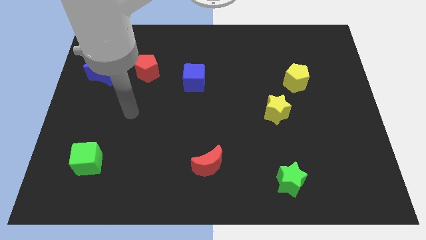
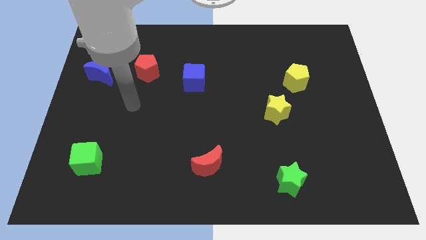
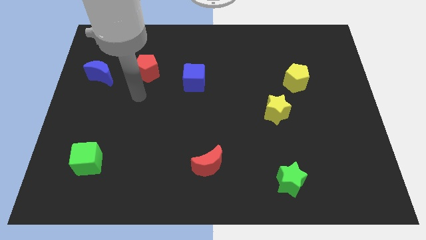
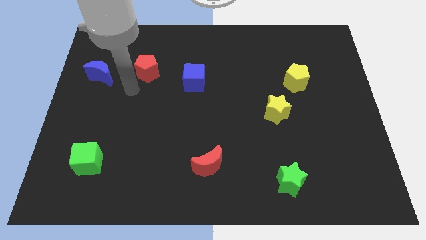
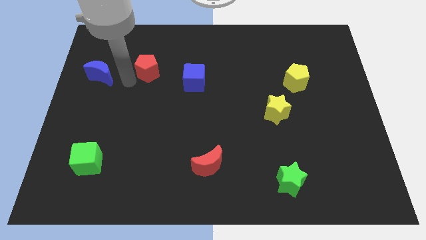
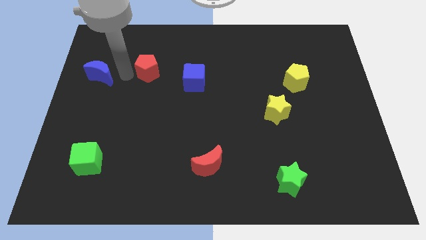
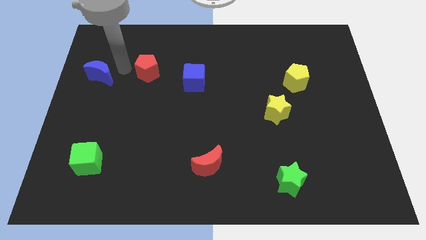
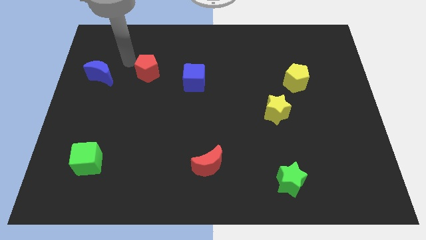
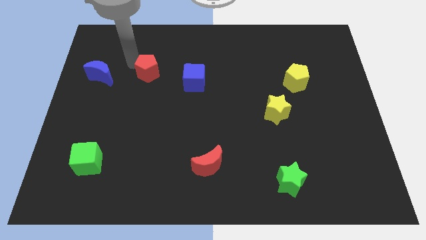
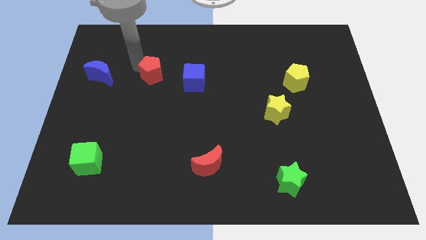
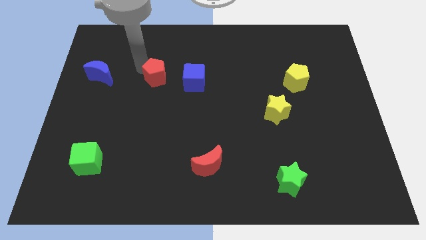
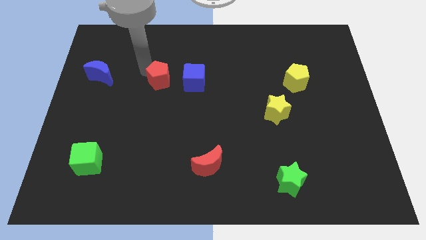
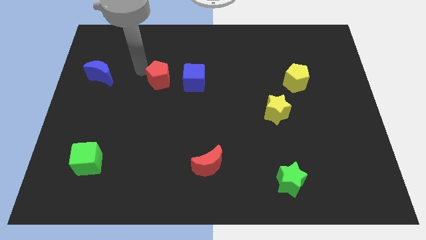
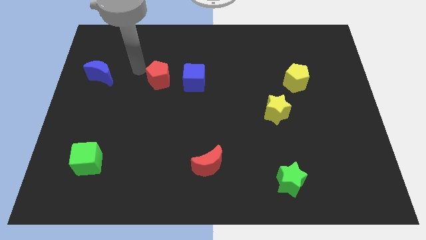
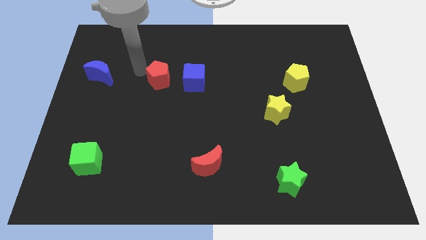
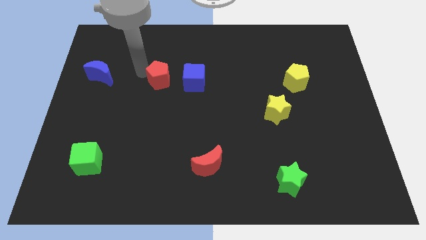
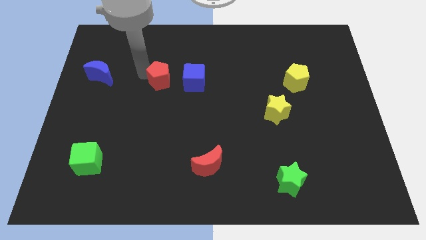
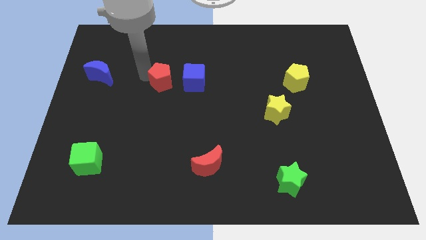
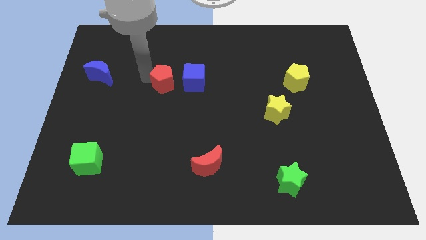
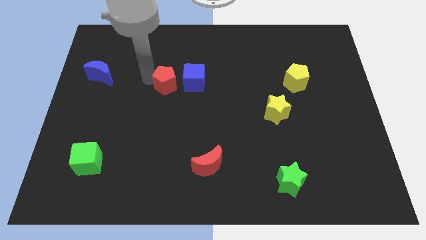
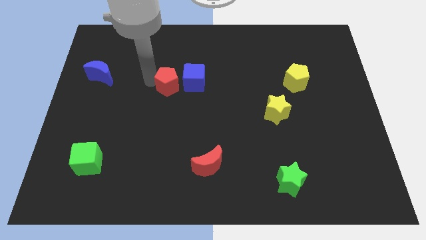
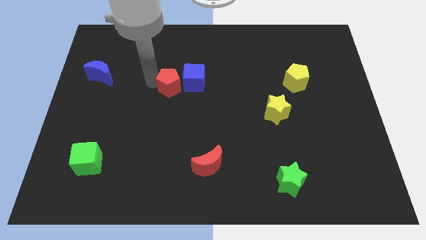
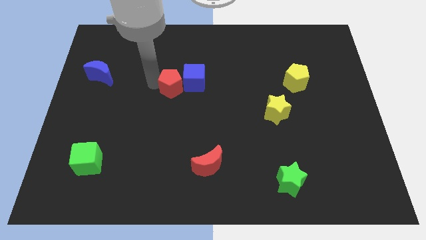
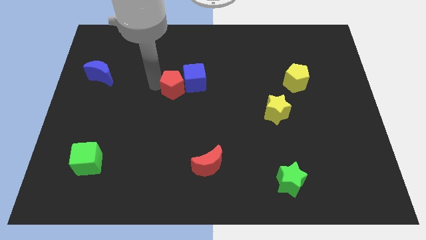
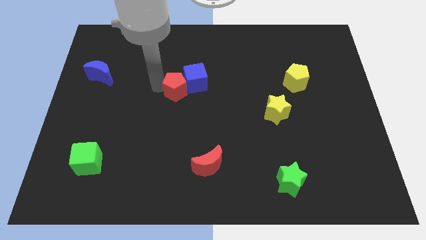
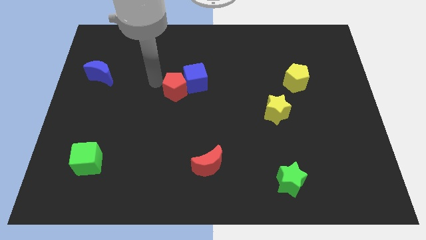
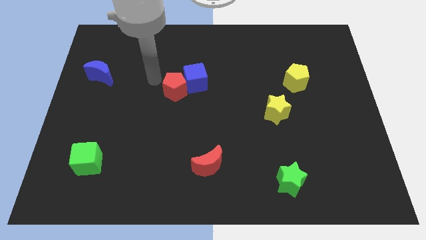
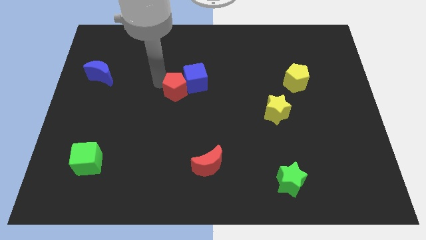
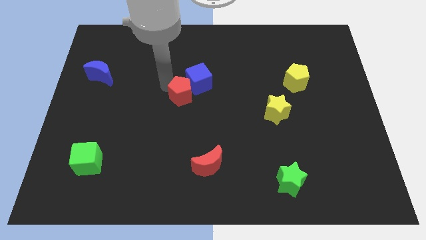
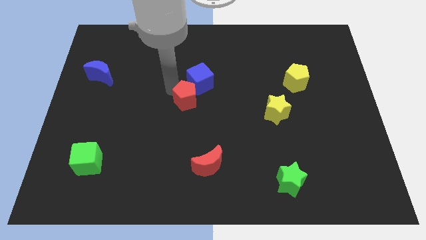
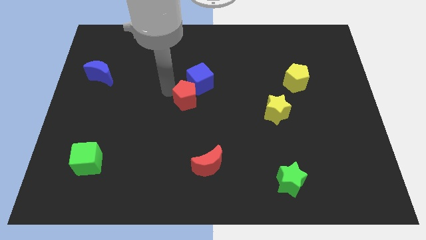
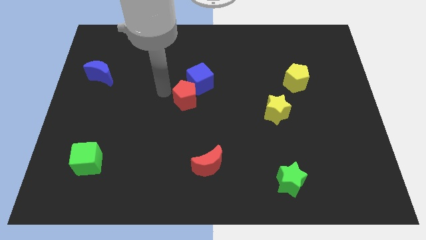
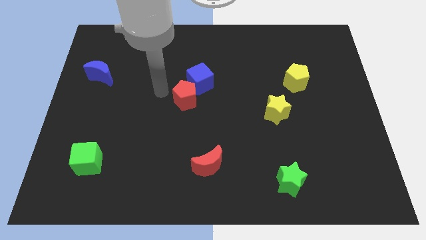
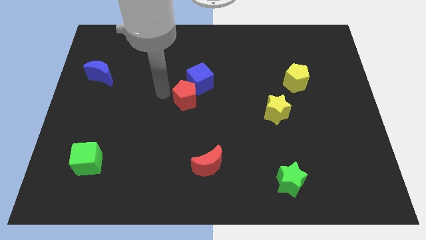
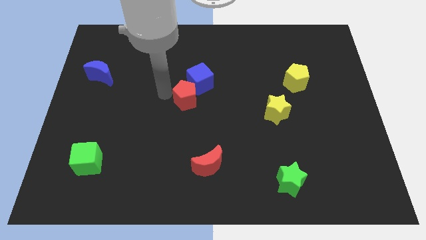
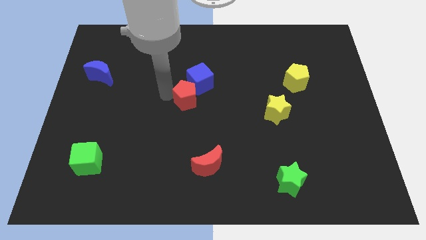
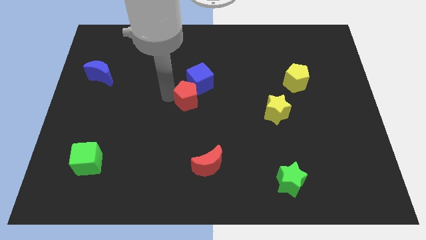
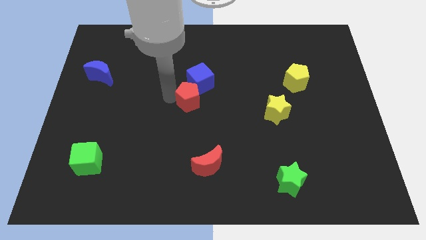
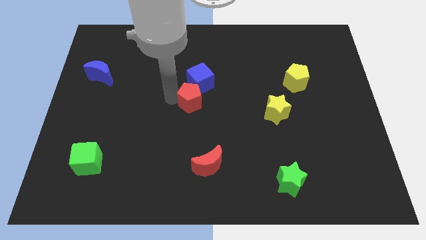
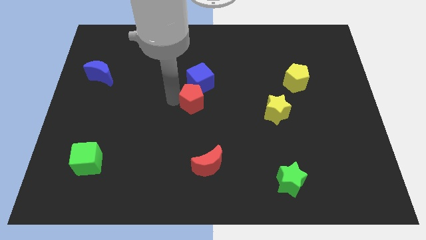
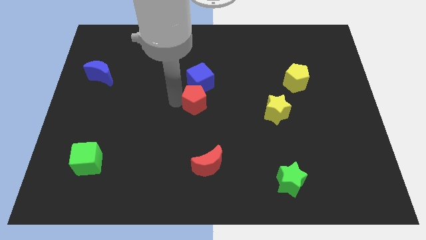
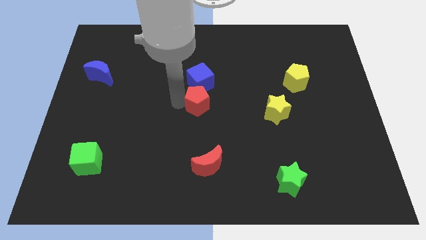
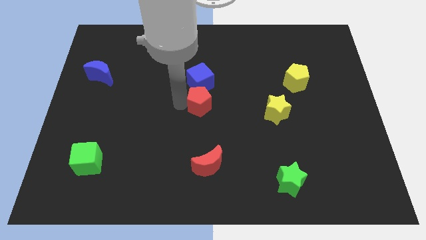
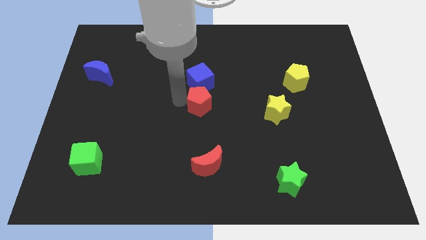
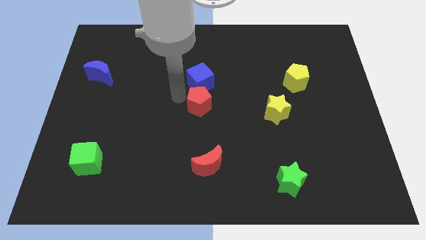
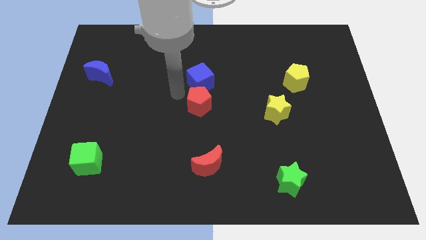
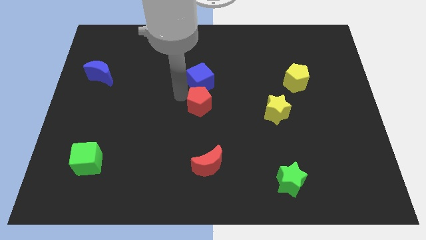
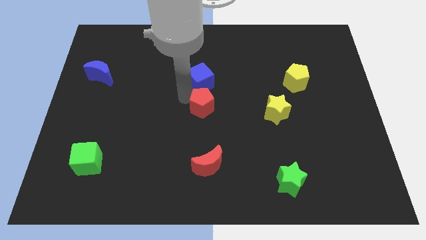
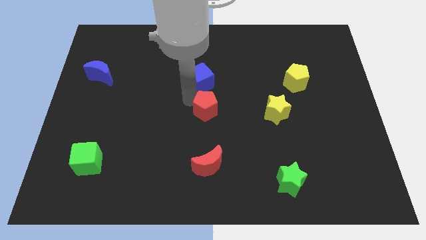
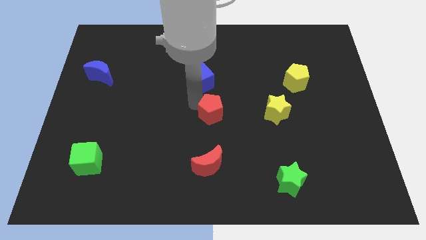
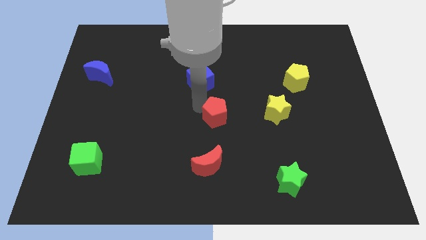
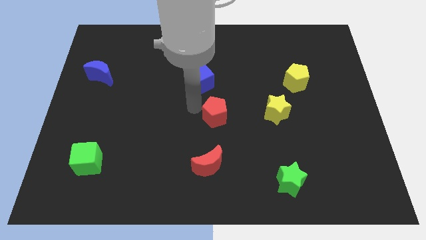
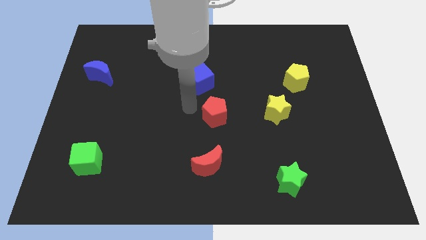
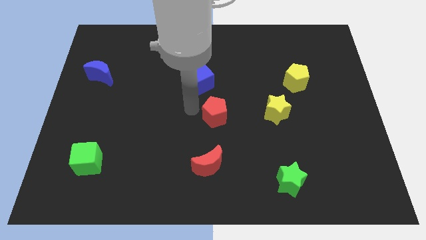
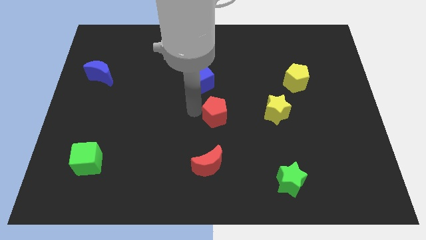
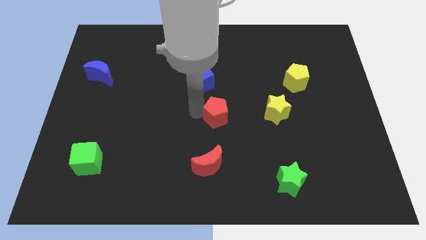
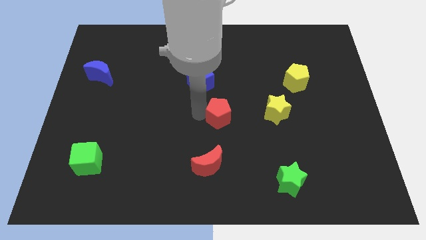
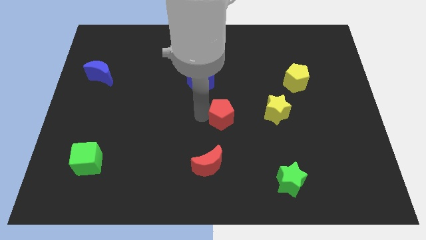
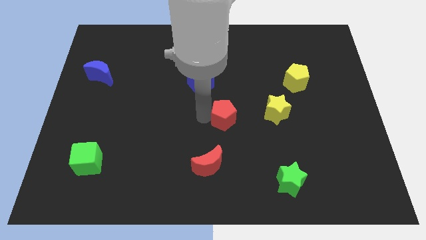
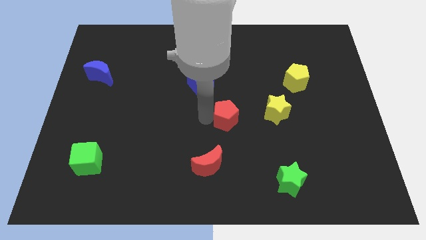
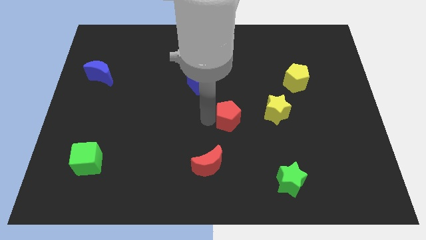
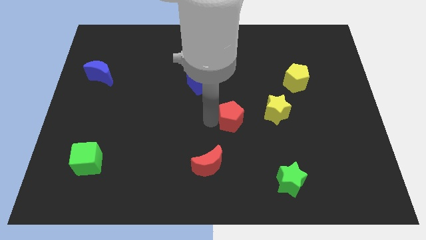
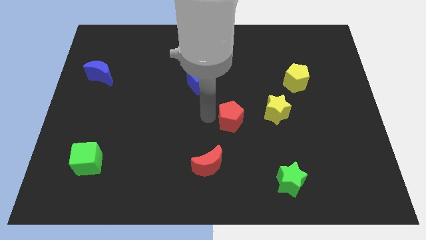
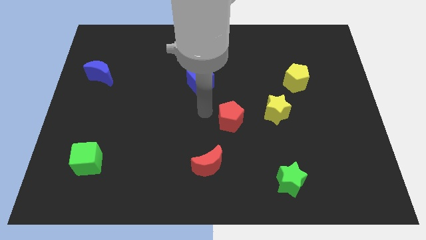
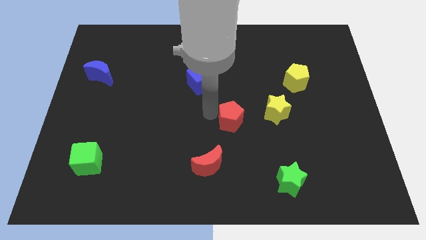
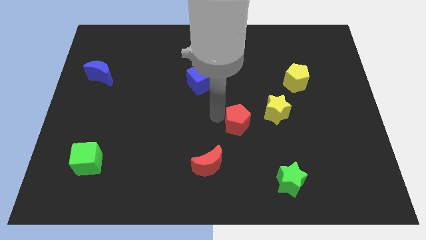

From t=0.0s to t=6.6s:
move the red pentagon to the bottom left side of the yellow star

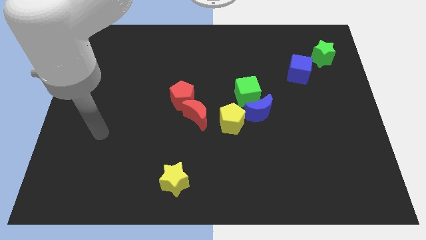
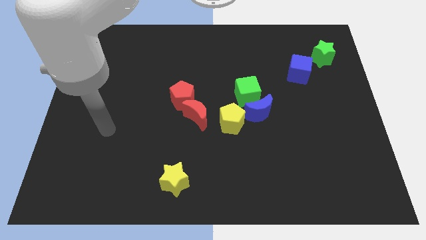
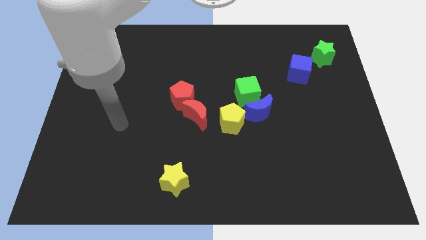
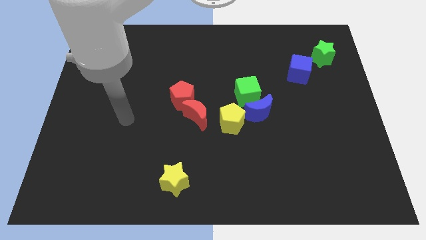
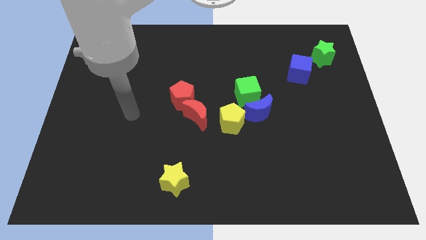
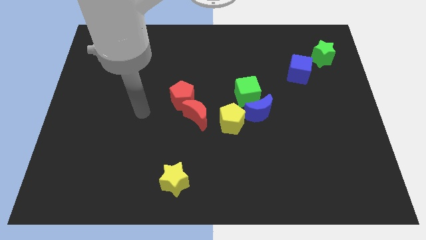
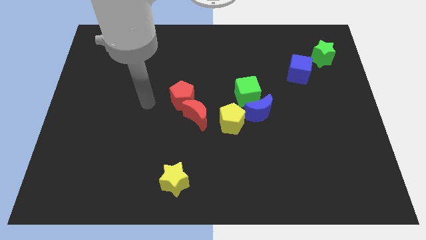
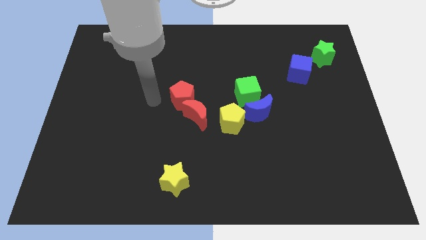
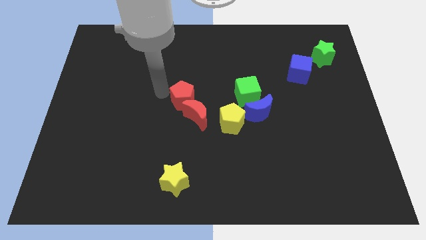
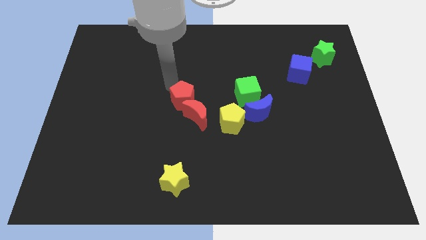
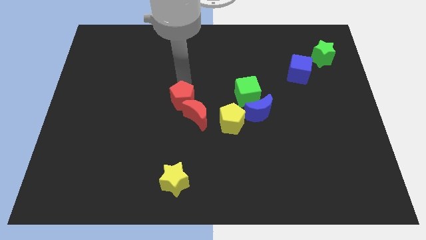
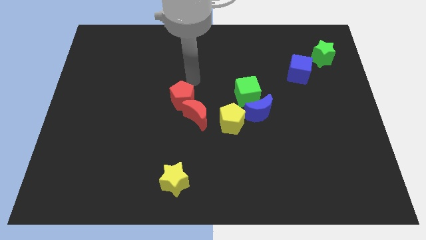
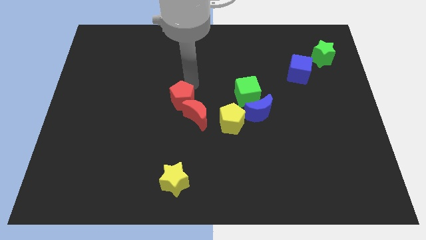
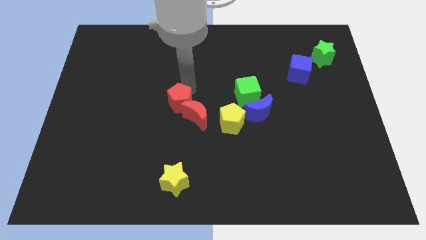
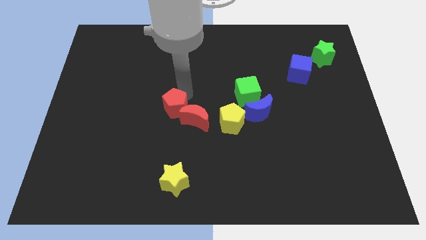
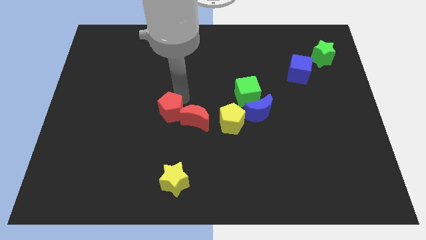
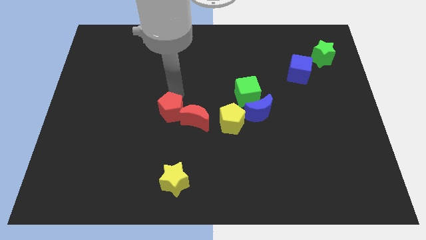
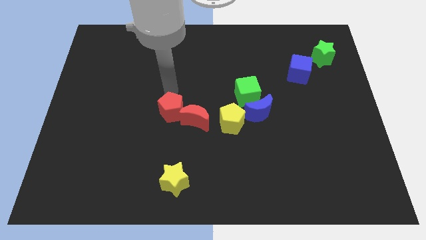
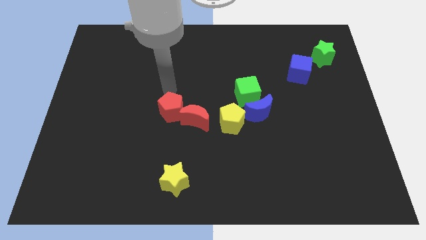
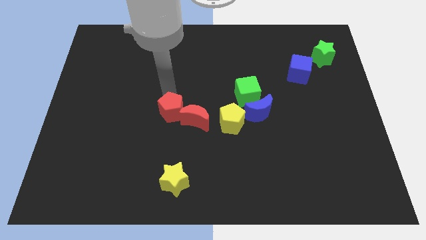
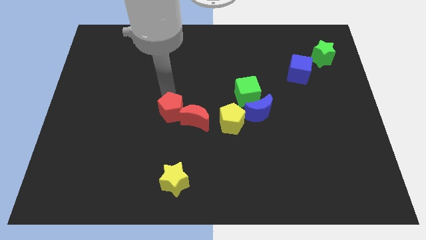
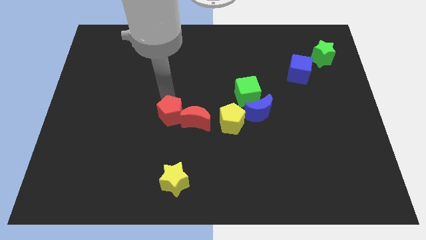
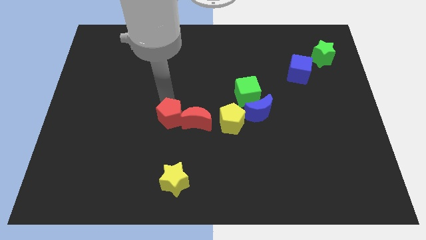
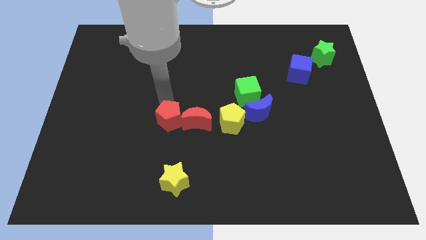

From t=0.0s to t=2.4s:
put the red pentagon to the top side of the yellow star
